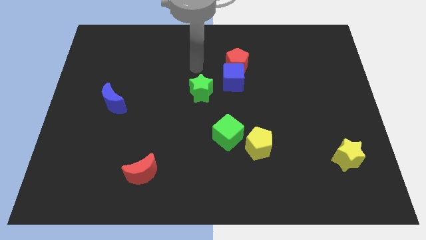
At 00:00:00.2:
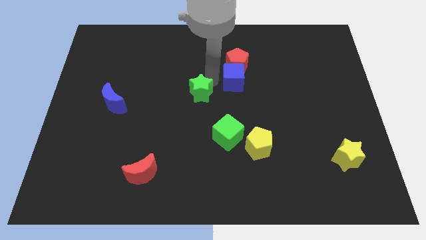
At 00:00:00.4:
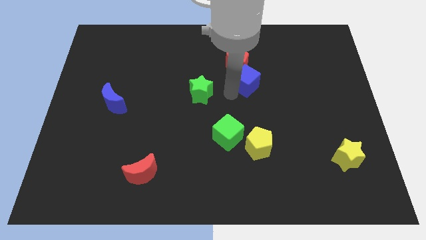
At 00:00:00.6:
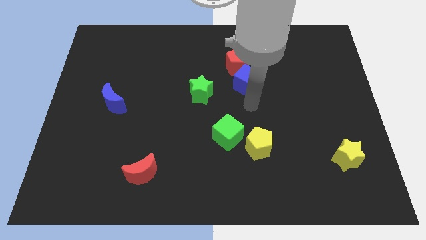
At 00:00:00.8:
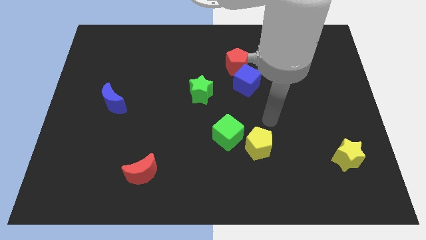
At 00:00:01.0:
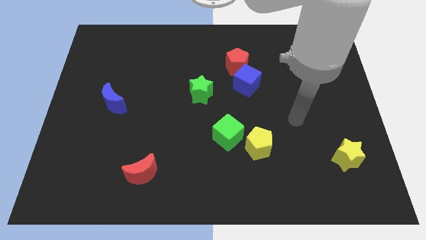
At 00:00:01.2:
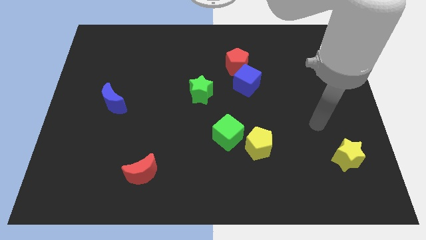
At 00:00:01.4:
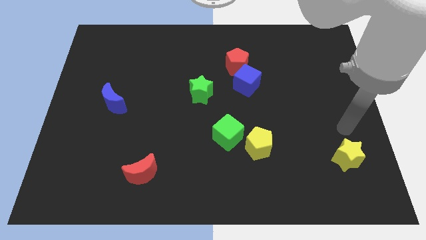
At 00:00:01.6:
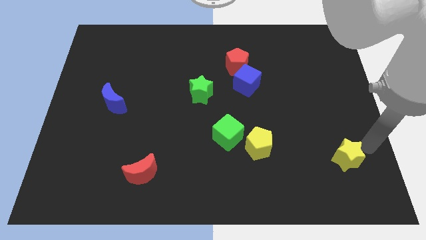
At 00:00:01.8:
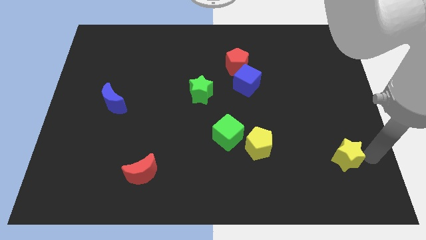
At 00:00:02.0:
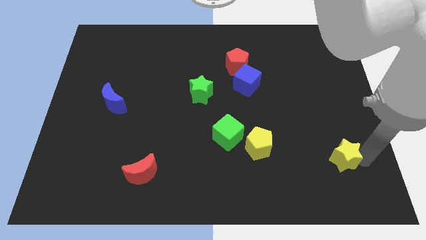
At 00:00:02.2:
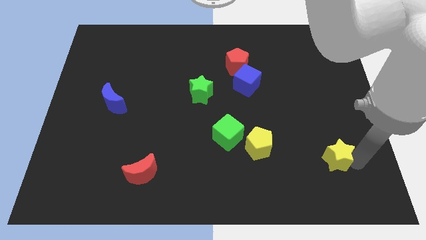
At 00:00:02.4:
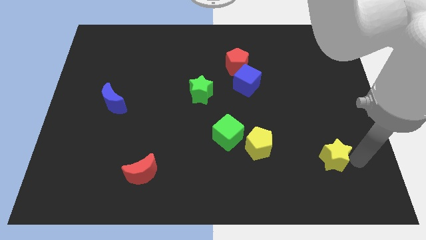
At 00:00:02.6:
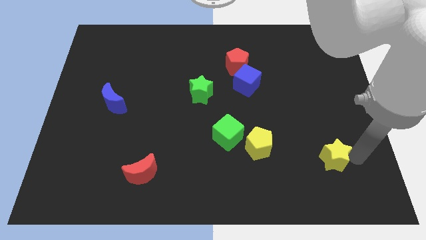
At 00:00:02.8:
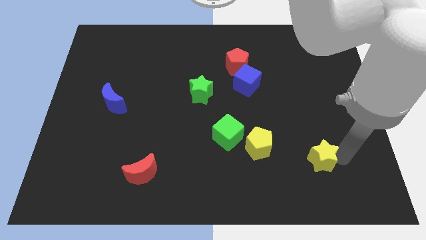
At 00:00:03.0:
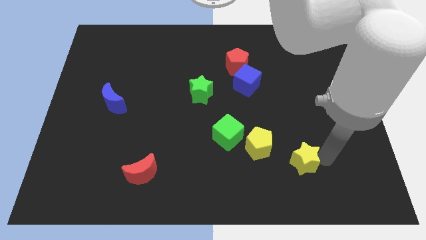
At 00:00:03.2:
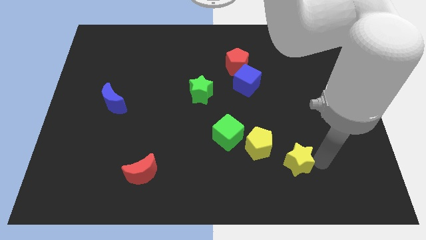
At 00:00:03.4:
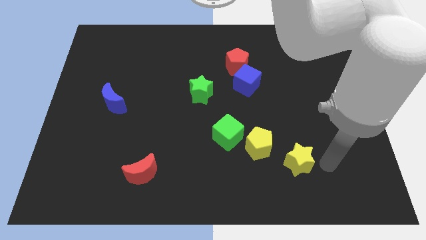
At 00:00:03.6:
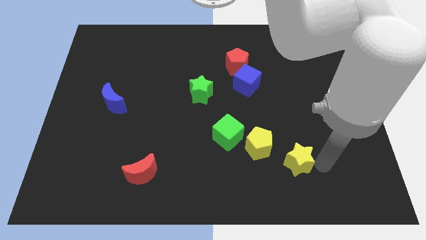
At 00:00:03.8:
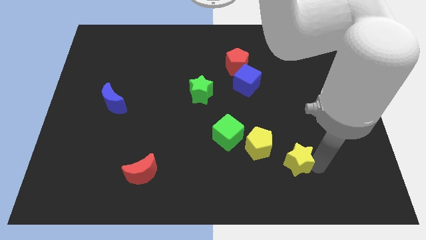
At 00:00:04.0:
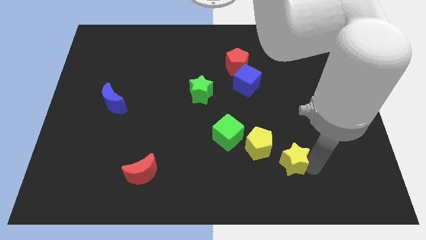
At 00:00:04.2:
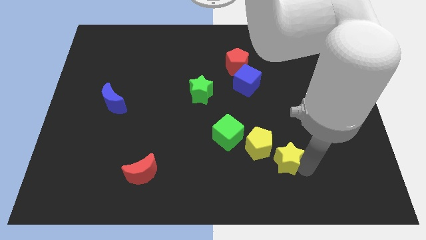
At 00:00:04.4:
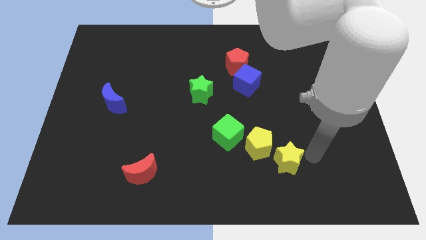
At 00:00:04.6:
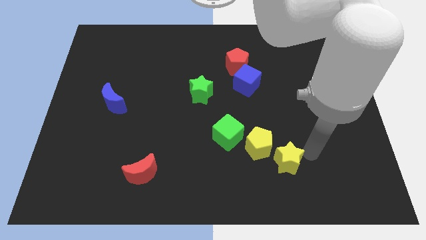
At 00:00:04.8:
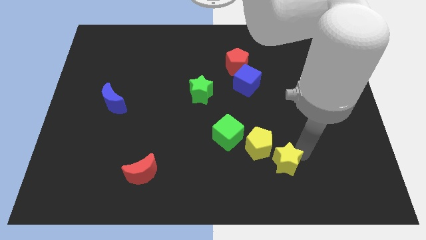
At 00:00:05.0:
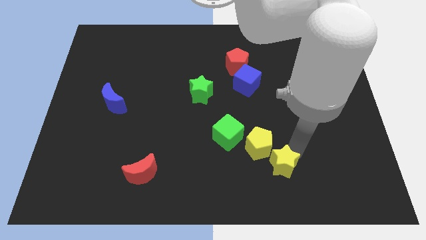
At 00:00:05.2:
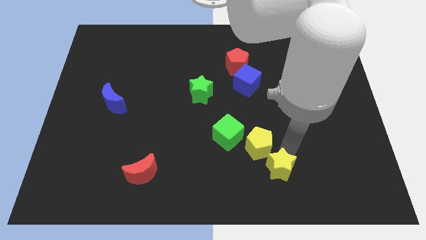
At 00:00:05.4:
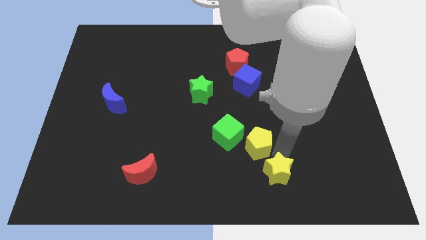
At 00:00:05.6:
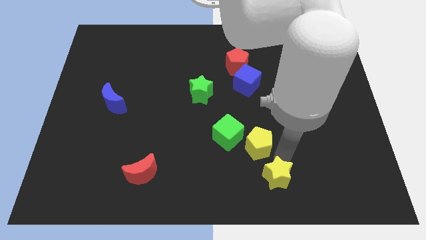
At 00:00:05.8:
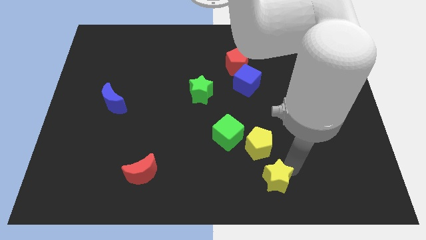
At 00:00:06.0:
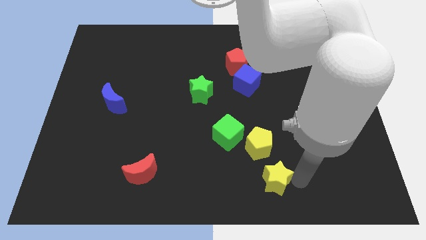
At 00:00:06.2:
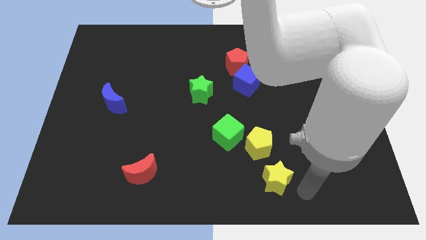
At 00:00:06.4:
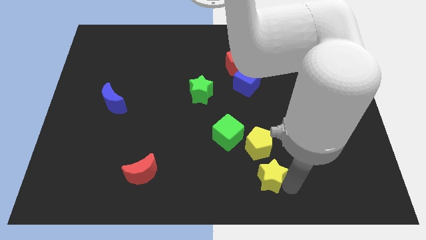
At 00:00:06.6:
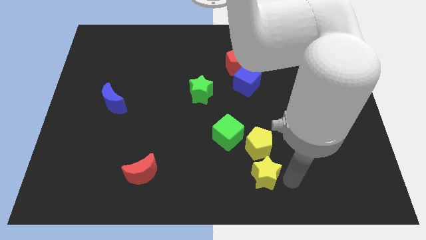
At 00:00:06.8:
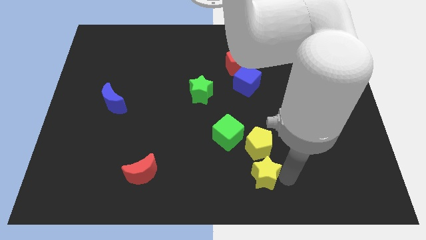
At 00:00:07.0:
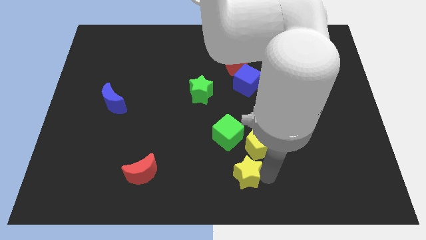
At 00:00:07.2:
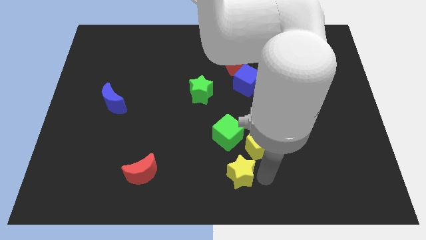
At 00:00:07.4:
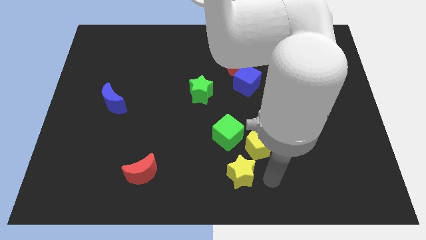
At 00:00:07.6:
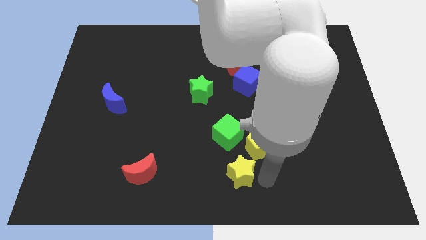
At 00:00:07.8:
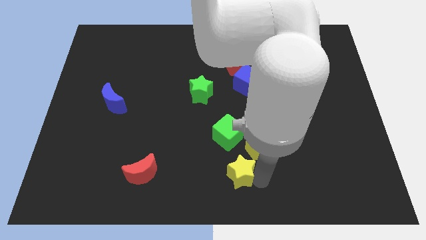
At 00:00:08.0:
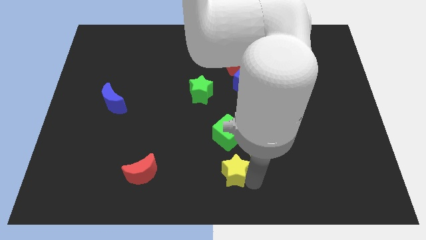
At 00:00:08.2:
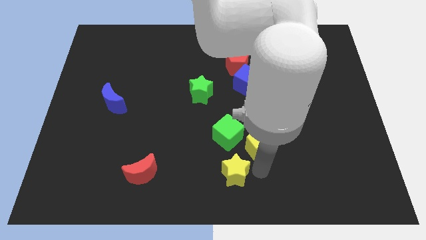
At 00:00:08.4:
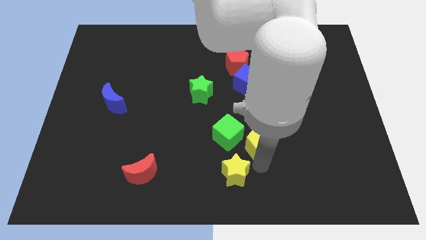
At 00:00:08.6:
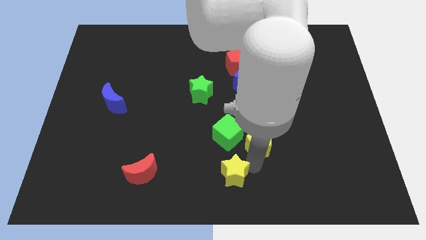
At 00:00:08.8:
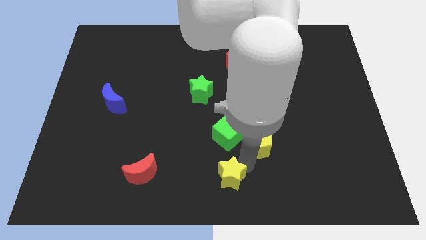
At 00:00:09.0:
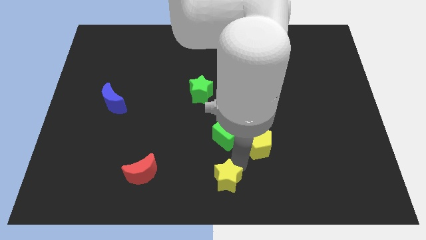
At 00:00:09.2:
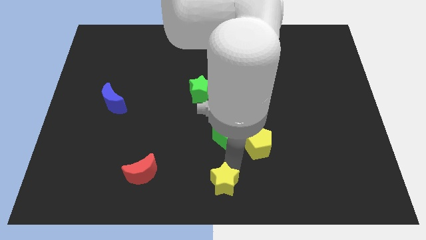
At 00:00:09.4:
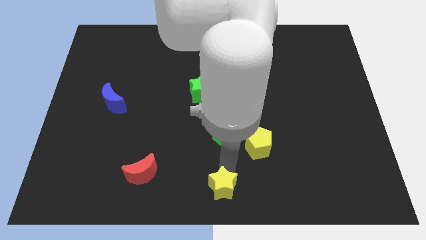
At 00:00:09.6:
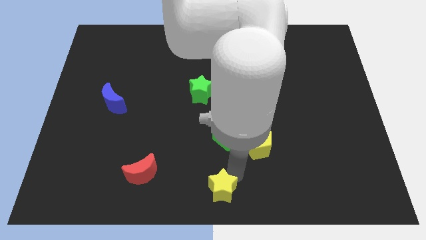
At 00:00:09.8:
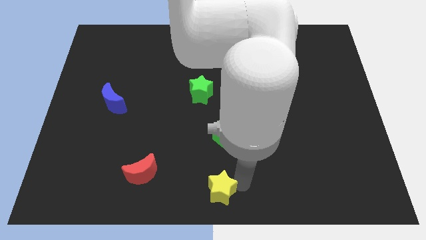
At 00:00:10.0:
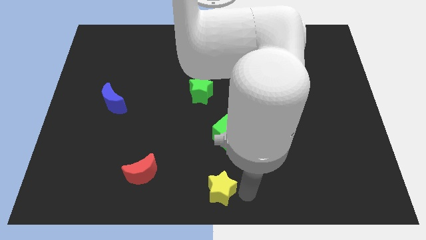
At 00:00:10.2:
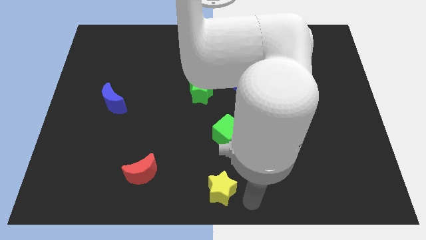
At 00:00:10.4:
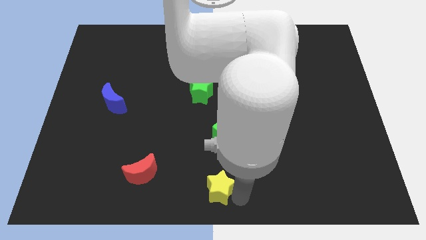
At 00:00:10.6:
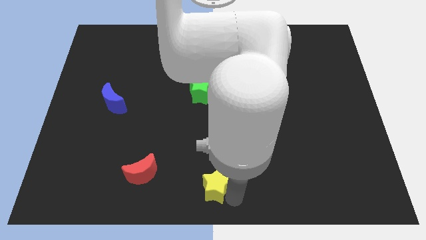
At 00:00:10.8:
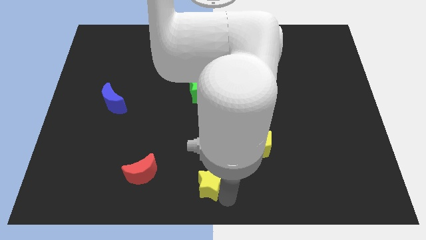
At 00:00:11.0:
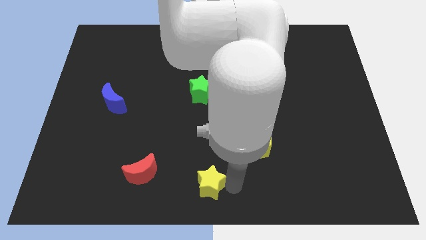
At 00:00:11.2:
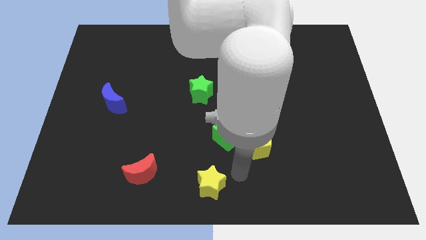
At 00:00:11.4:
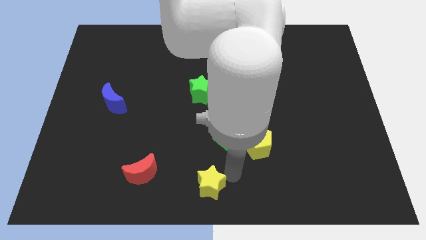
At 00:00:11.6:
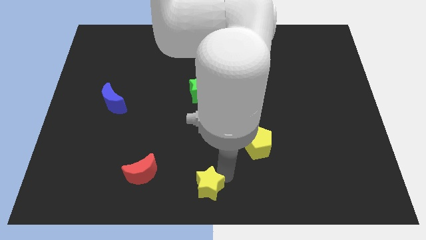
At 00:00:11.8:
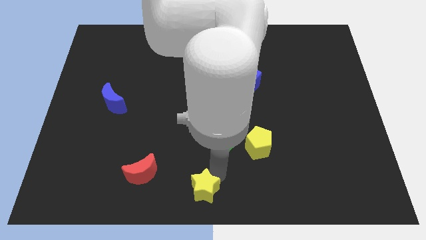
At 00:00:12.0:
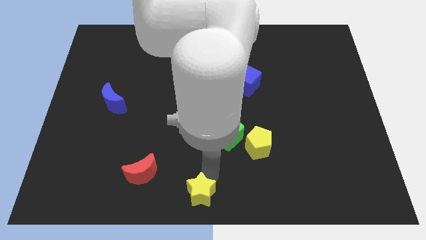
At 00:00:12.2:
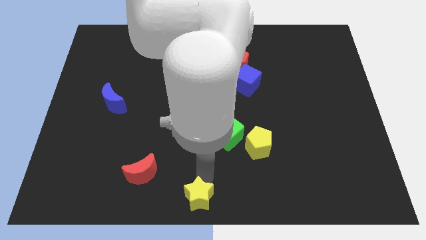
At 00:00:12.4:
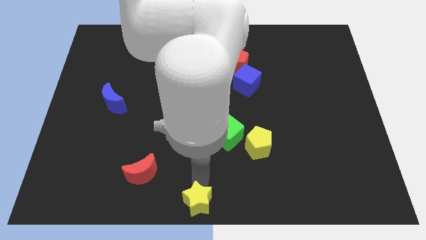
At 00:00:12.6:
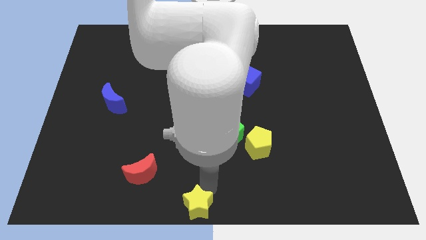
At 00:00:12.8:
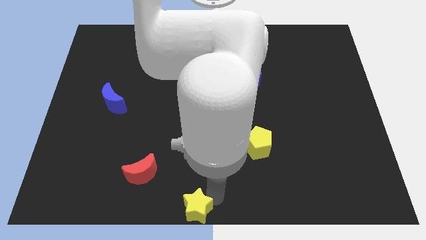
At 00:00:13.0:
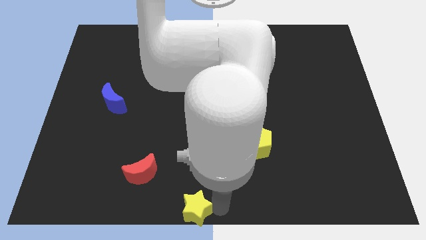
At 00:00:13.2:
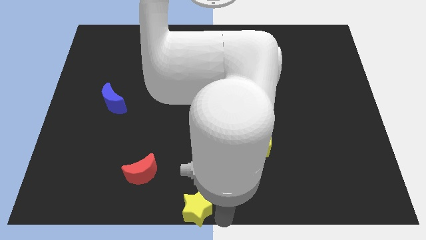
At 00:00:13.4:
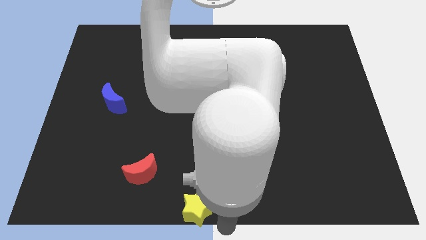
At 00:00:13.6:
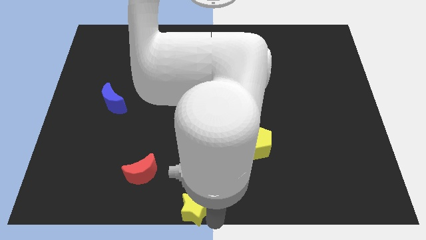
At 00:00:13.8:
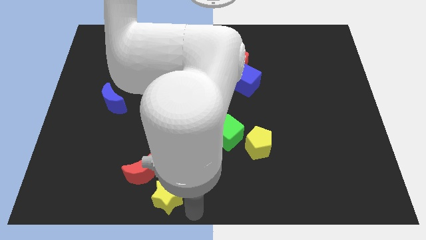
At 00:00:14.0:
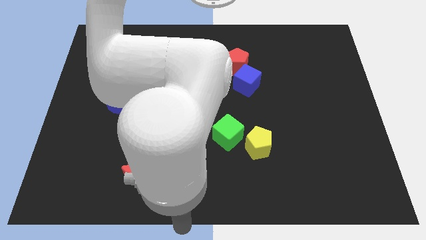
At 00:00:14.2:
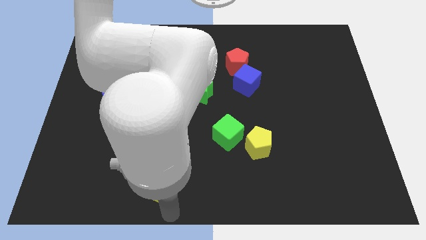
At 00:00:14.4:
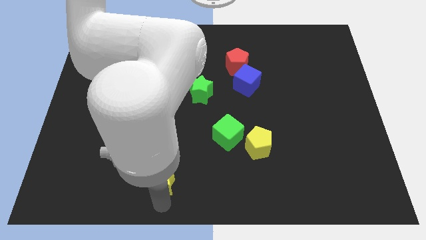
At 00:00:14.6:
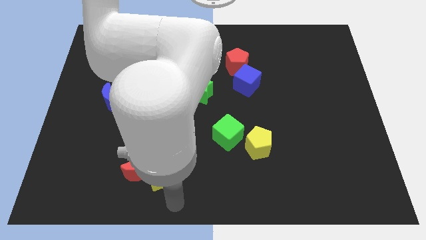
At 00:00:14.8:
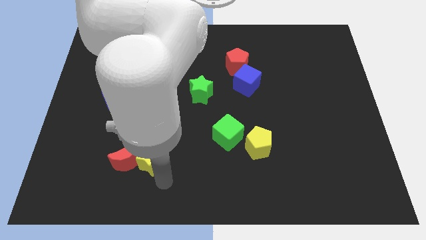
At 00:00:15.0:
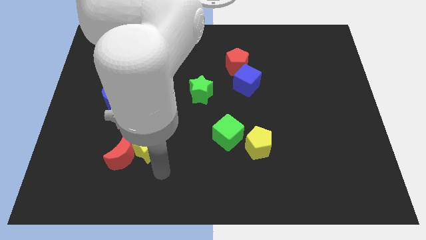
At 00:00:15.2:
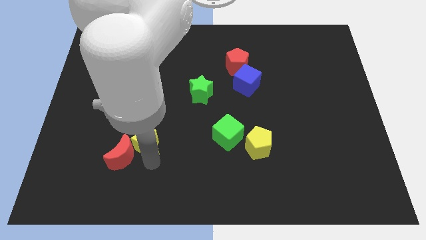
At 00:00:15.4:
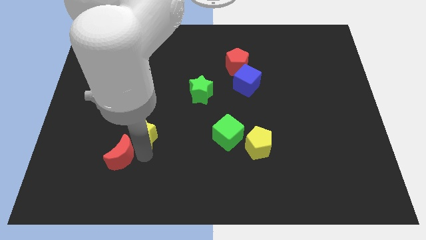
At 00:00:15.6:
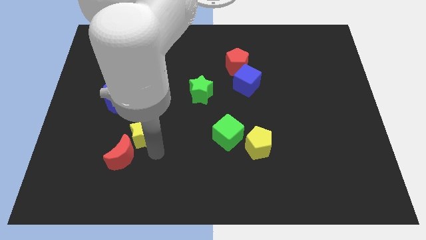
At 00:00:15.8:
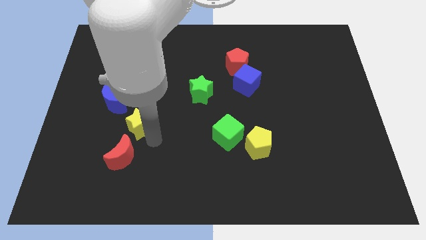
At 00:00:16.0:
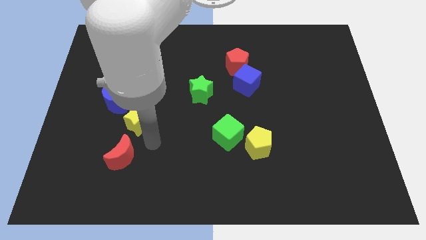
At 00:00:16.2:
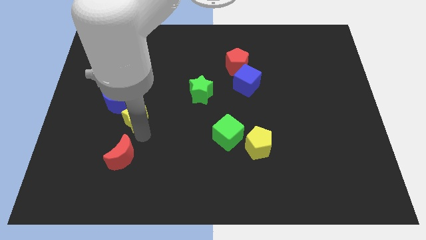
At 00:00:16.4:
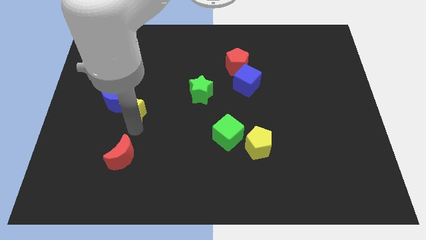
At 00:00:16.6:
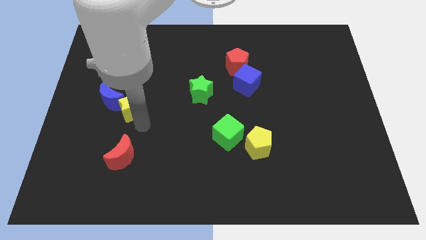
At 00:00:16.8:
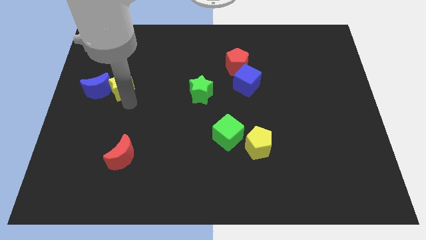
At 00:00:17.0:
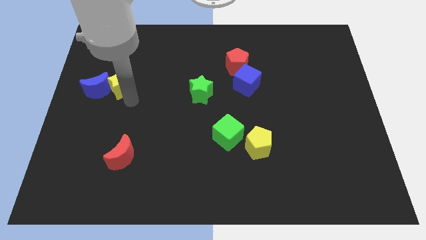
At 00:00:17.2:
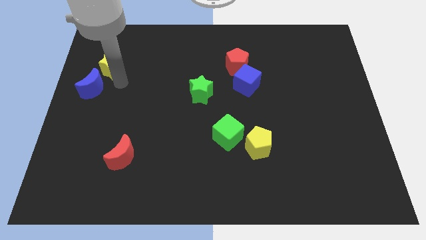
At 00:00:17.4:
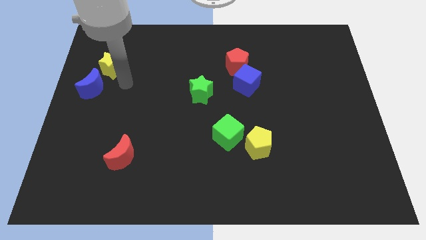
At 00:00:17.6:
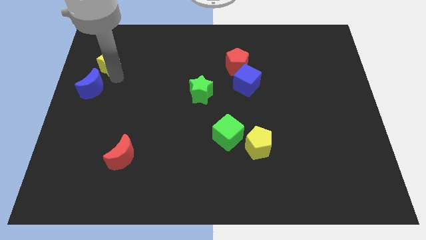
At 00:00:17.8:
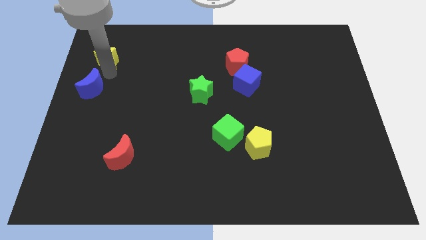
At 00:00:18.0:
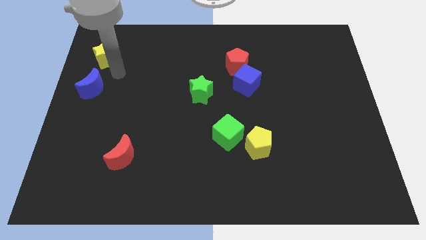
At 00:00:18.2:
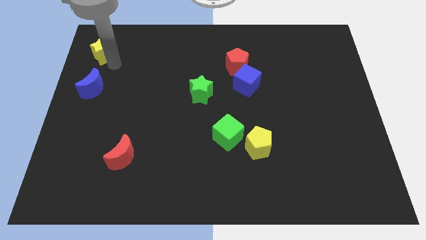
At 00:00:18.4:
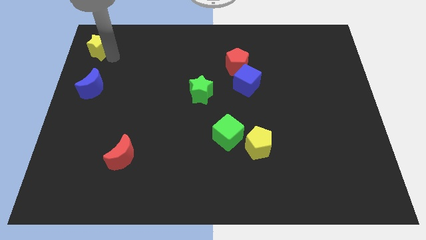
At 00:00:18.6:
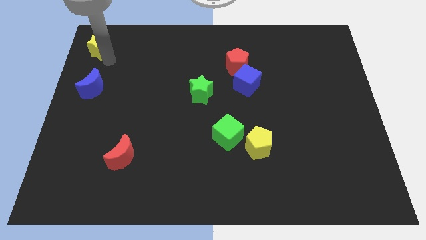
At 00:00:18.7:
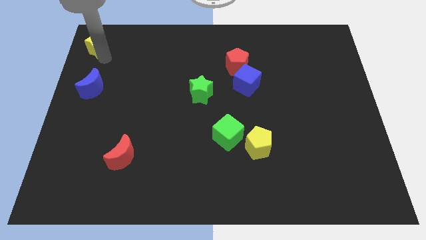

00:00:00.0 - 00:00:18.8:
put the yellow star to the upper left corner
